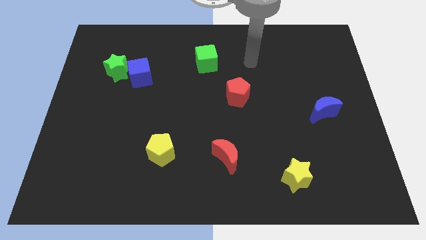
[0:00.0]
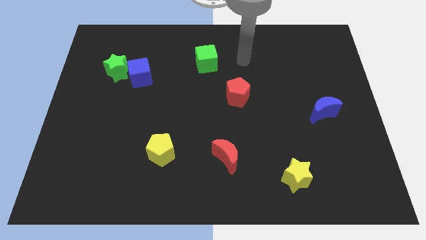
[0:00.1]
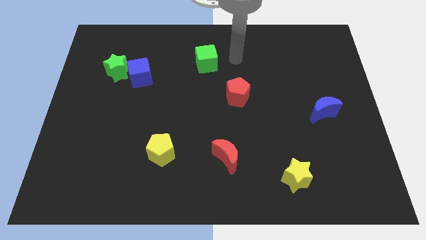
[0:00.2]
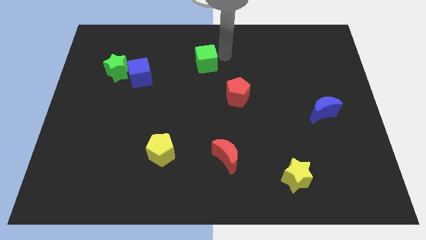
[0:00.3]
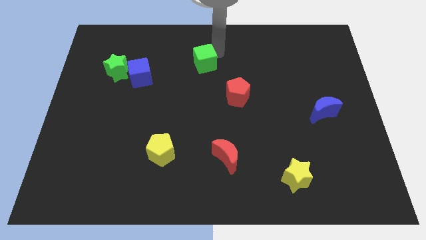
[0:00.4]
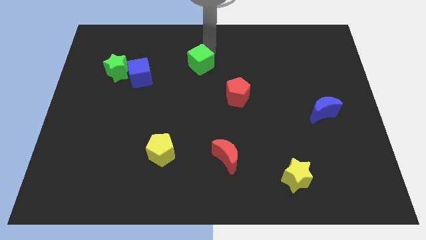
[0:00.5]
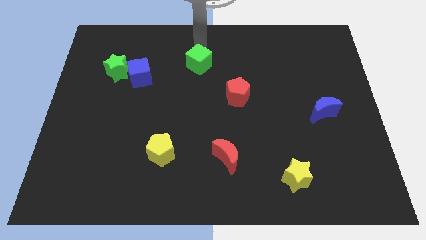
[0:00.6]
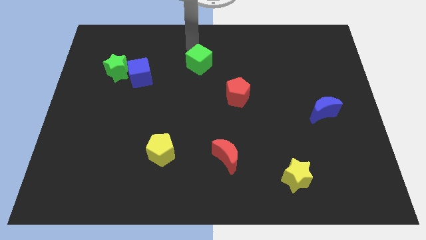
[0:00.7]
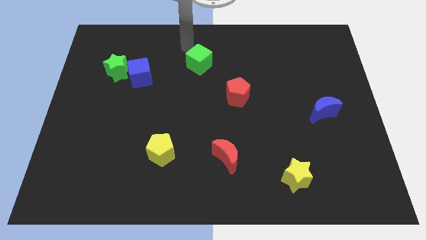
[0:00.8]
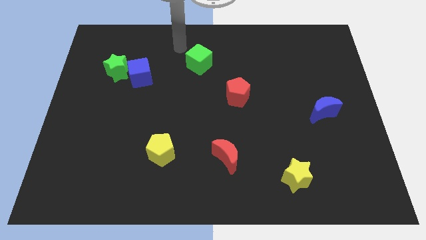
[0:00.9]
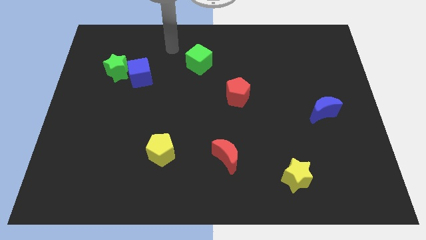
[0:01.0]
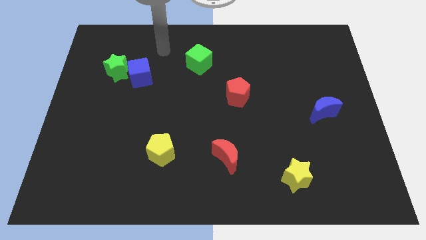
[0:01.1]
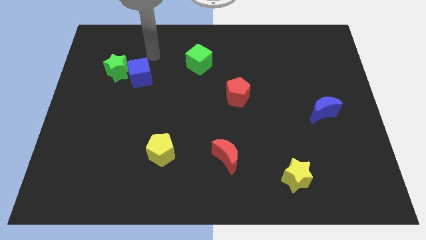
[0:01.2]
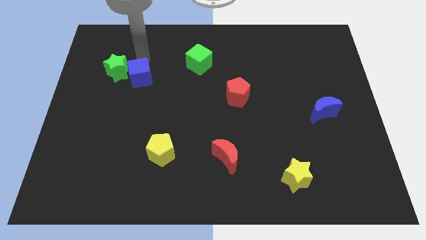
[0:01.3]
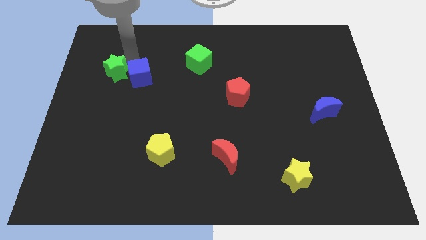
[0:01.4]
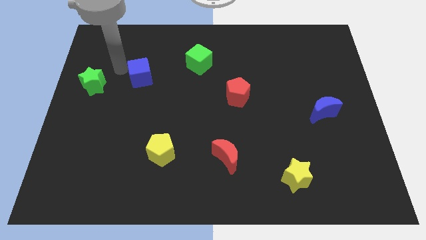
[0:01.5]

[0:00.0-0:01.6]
move the blue cube away from the green star

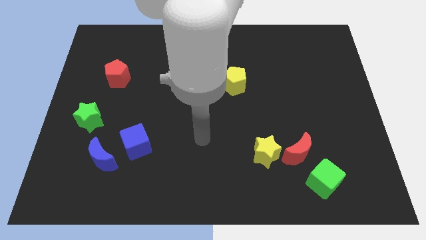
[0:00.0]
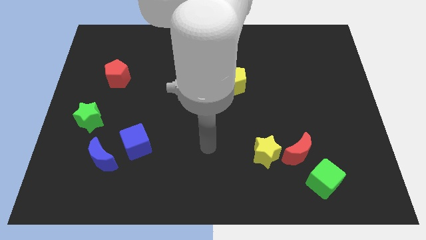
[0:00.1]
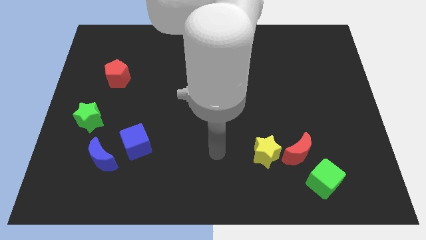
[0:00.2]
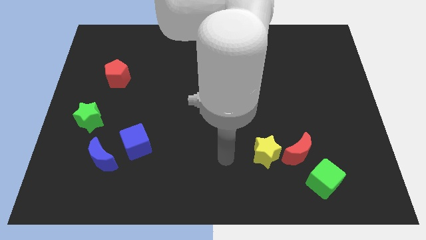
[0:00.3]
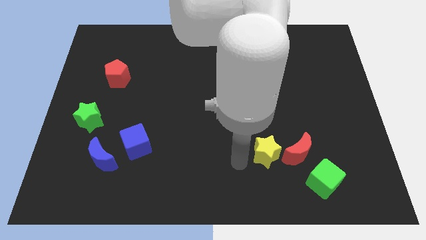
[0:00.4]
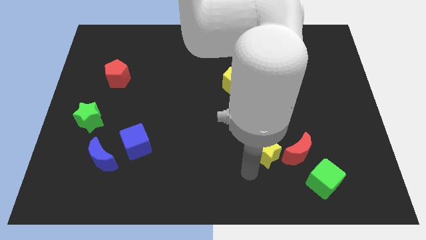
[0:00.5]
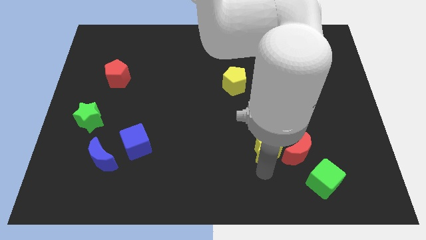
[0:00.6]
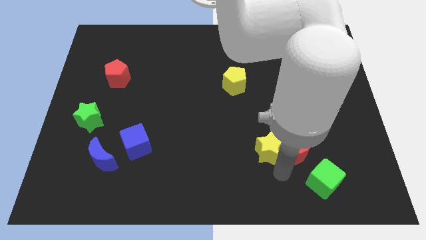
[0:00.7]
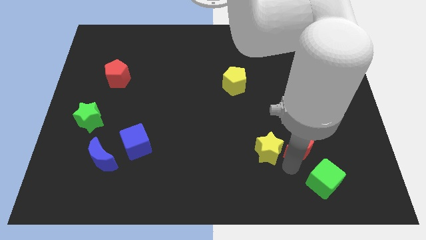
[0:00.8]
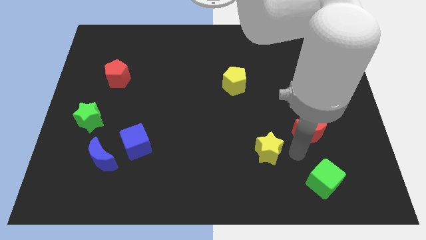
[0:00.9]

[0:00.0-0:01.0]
move the yellow star away from the red moon

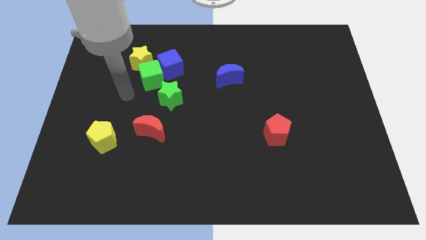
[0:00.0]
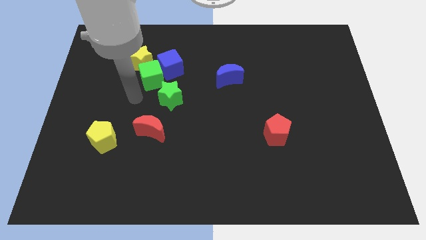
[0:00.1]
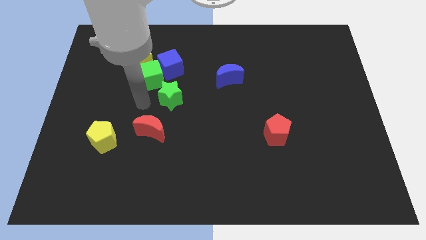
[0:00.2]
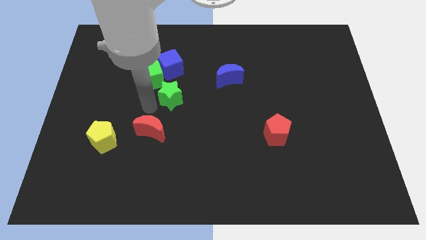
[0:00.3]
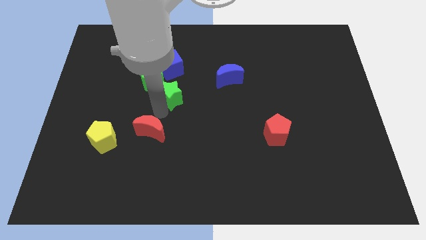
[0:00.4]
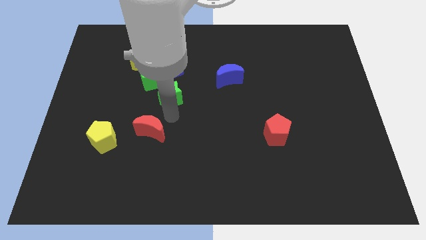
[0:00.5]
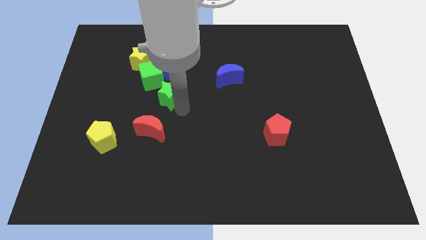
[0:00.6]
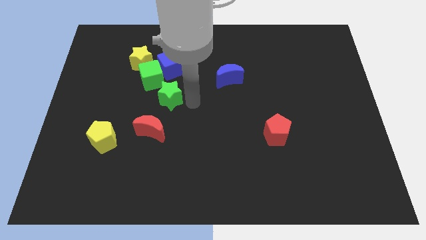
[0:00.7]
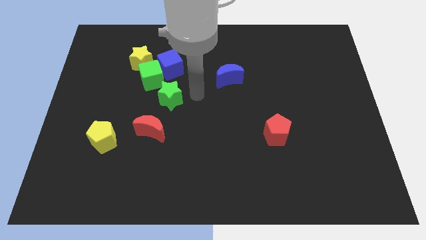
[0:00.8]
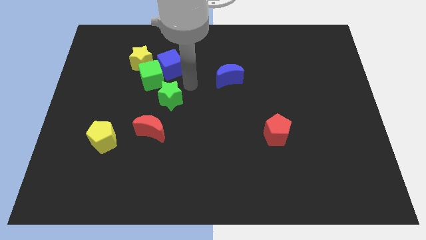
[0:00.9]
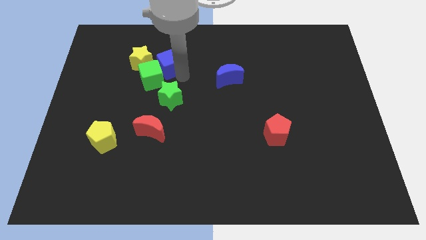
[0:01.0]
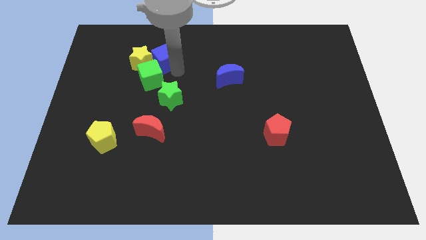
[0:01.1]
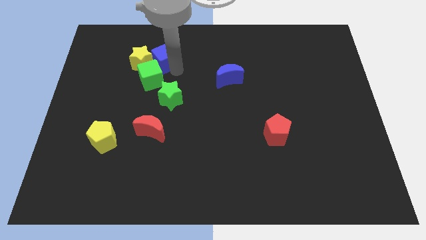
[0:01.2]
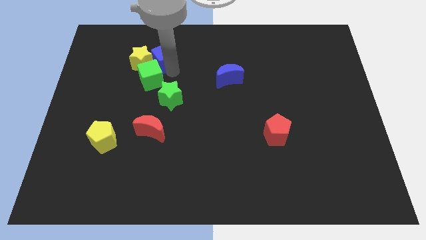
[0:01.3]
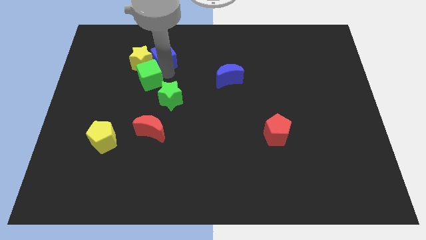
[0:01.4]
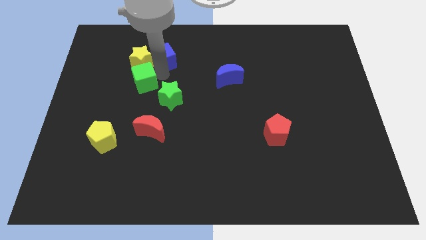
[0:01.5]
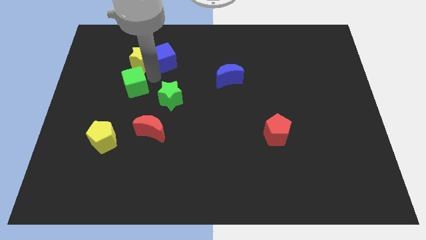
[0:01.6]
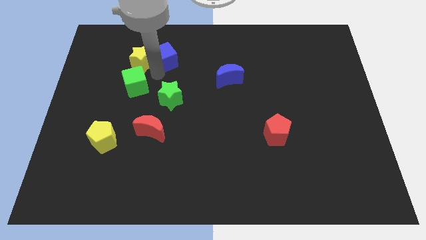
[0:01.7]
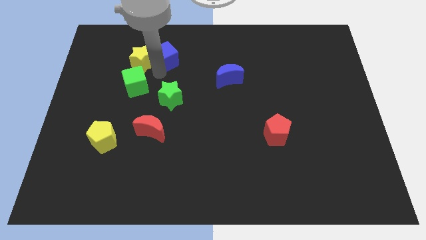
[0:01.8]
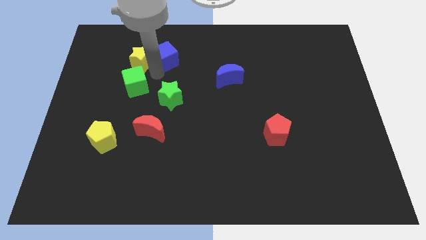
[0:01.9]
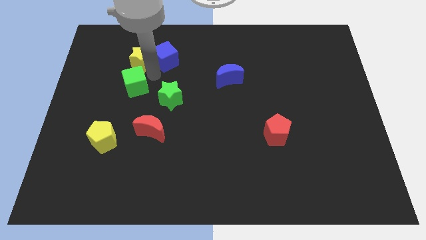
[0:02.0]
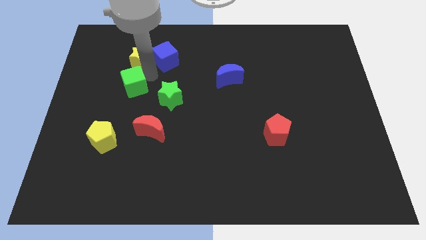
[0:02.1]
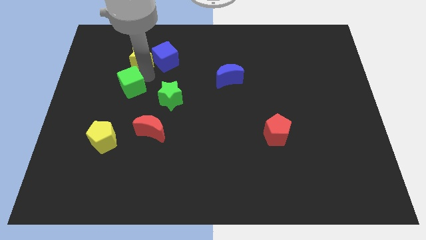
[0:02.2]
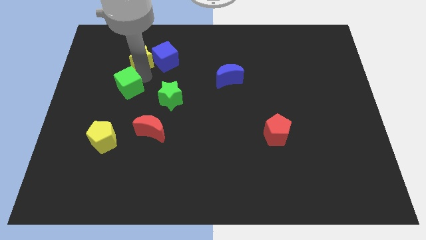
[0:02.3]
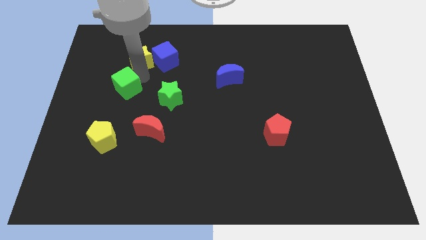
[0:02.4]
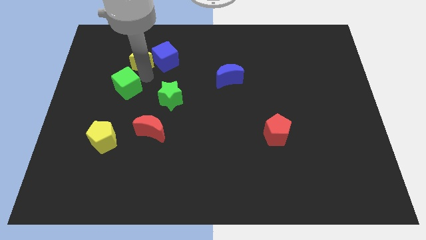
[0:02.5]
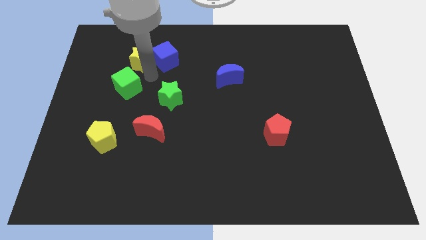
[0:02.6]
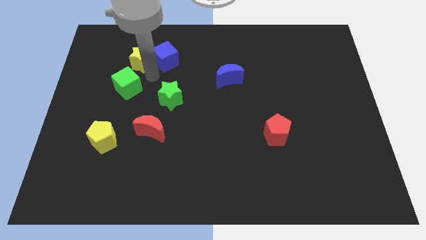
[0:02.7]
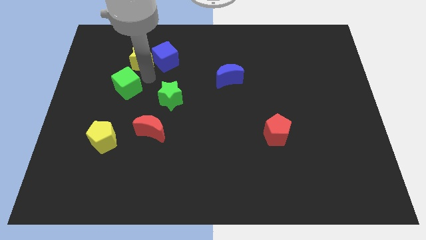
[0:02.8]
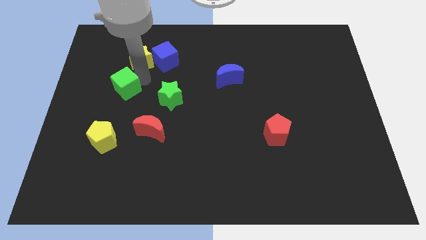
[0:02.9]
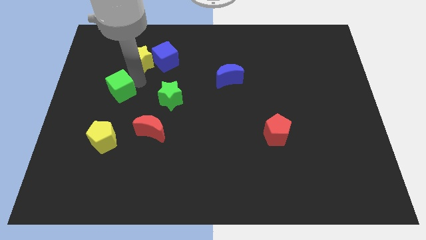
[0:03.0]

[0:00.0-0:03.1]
pull the green cube apart from the group of blocks

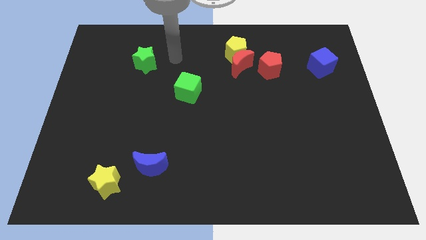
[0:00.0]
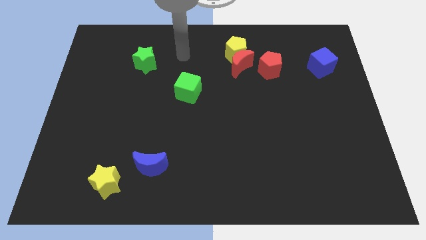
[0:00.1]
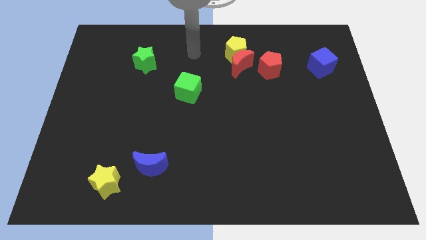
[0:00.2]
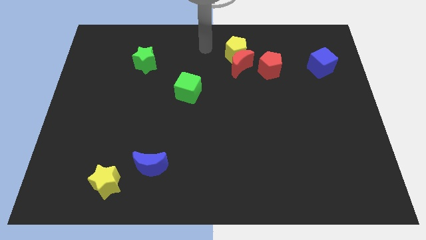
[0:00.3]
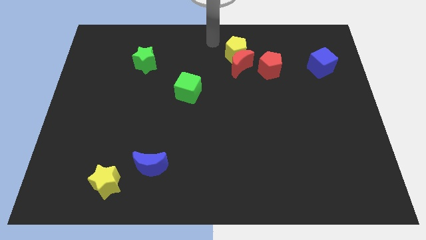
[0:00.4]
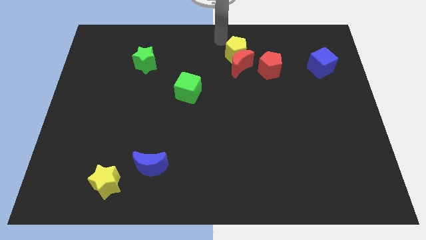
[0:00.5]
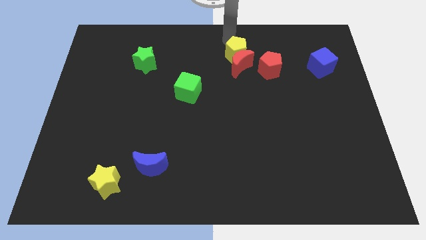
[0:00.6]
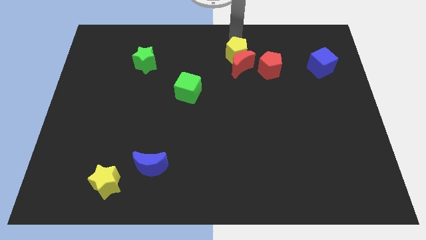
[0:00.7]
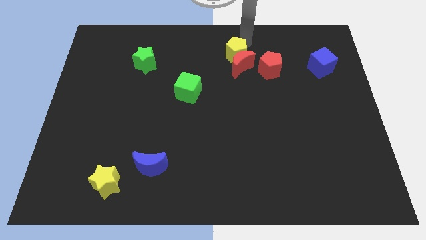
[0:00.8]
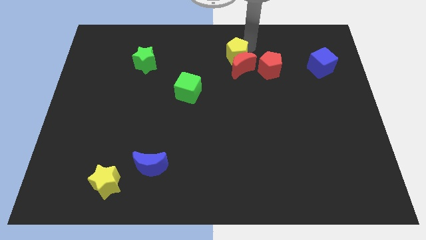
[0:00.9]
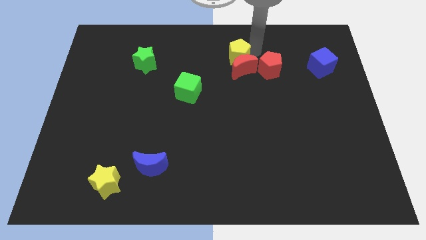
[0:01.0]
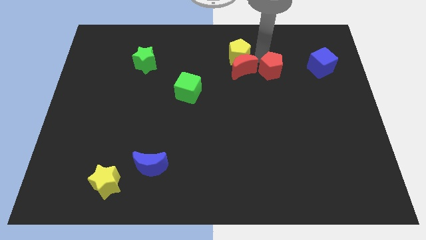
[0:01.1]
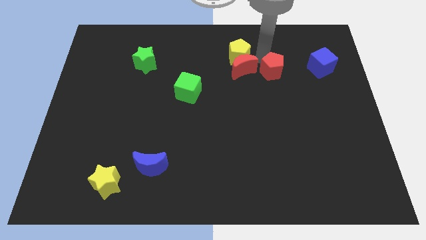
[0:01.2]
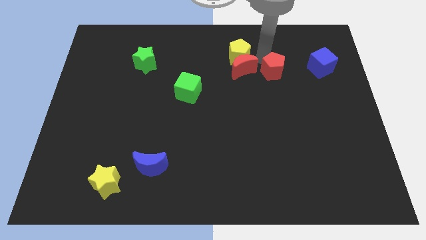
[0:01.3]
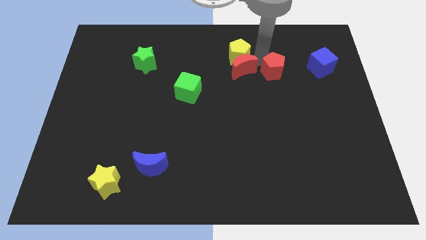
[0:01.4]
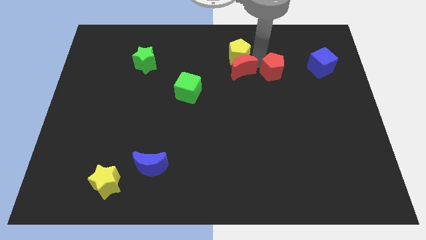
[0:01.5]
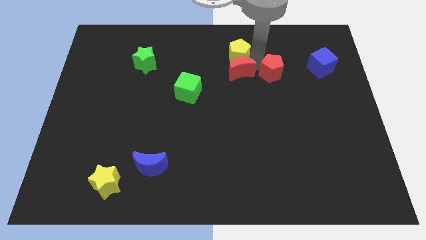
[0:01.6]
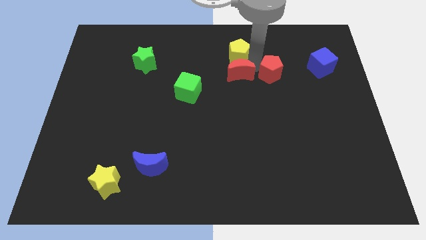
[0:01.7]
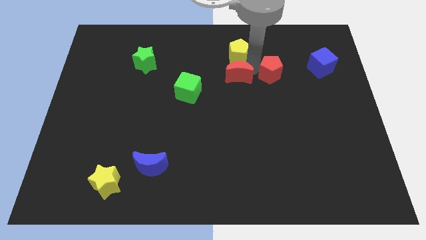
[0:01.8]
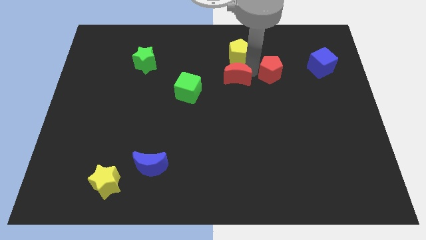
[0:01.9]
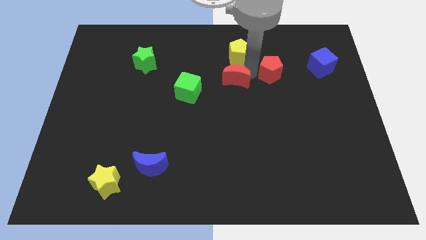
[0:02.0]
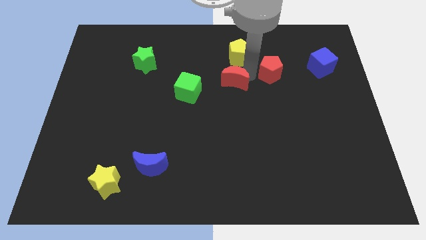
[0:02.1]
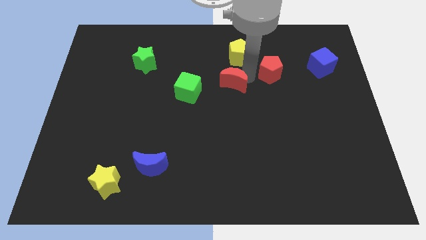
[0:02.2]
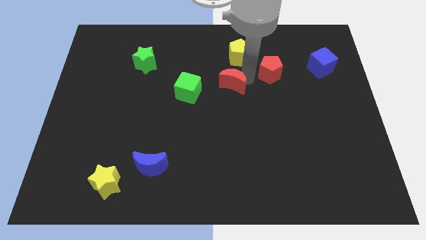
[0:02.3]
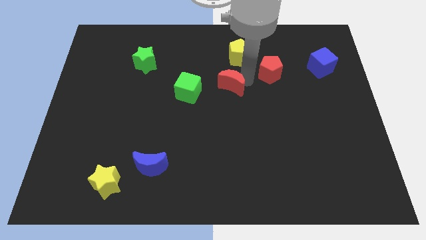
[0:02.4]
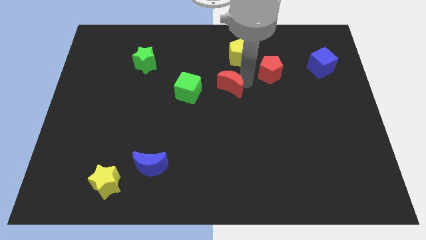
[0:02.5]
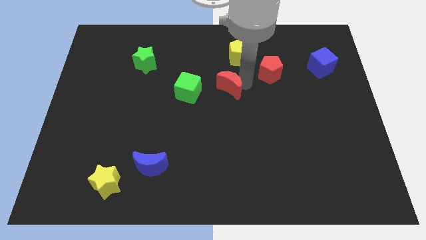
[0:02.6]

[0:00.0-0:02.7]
move the red moon away from the yellow pentagon and red pentagon

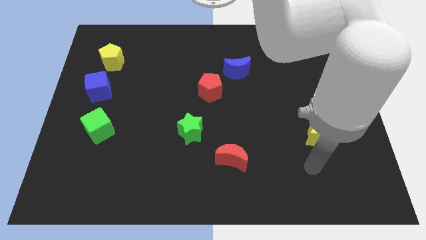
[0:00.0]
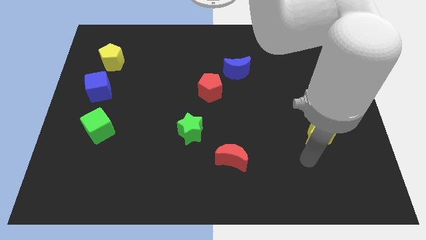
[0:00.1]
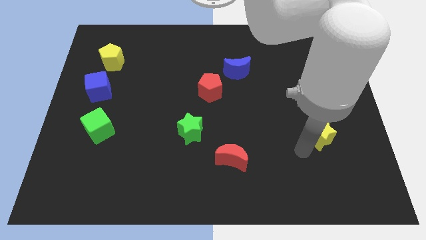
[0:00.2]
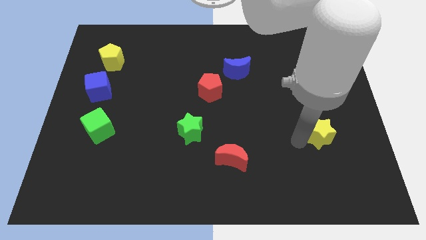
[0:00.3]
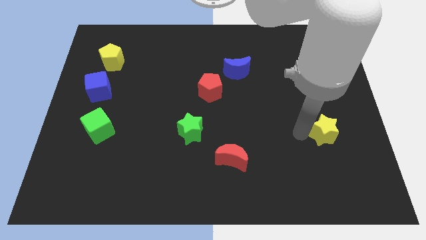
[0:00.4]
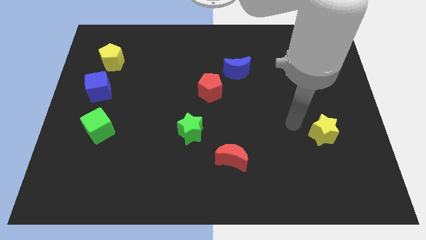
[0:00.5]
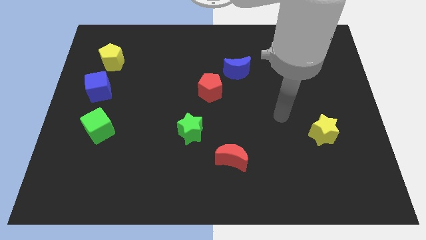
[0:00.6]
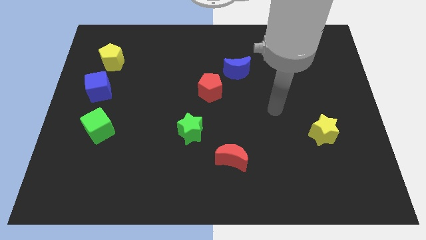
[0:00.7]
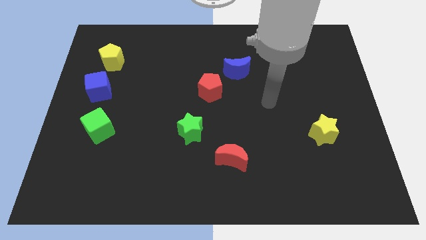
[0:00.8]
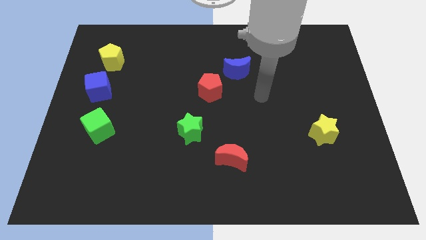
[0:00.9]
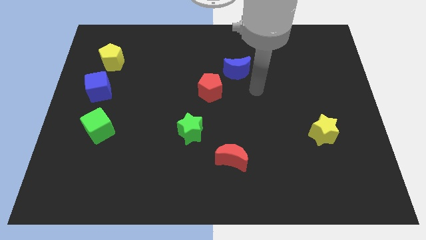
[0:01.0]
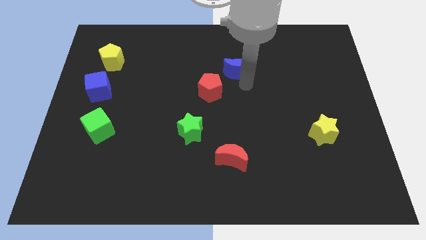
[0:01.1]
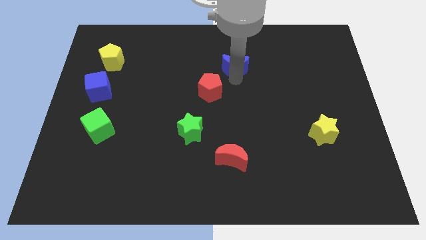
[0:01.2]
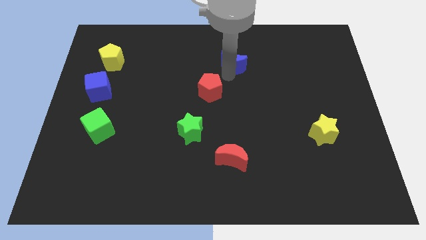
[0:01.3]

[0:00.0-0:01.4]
move the red pentagon away from the blue moon
